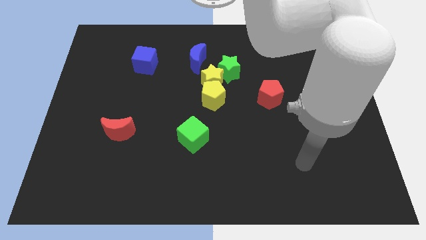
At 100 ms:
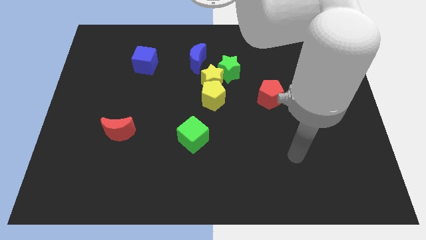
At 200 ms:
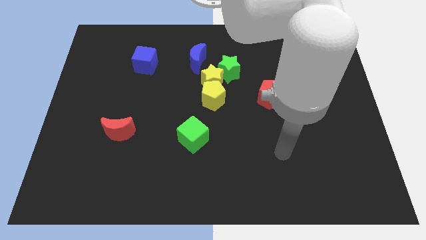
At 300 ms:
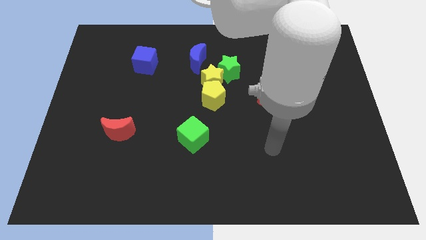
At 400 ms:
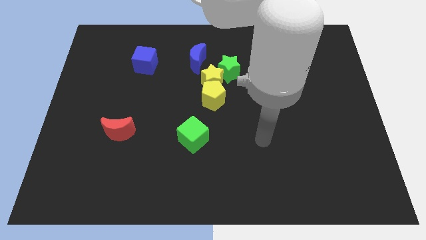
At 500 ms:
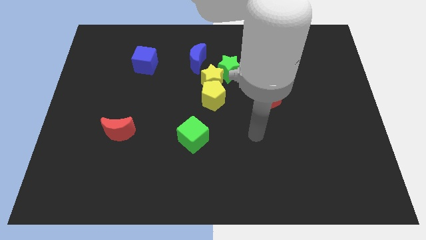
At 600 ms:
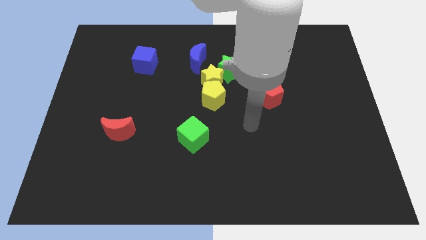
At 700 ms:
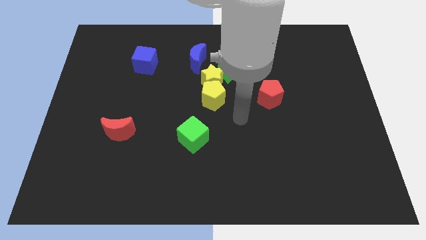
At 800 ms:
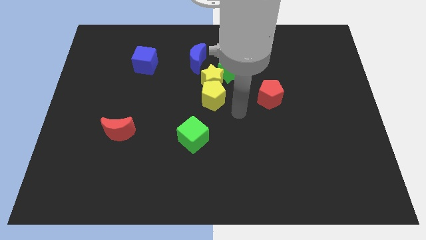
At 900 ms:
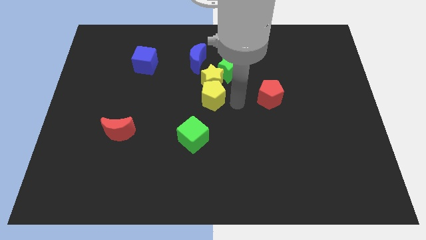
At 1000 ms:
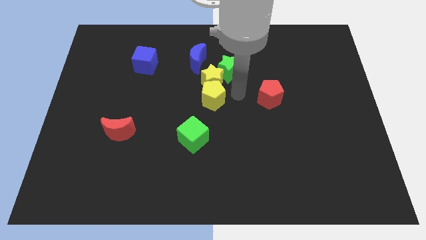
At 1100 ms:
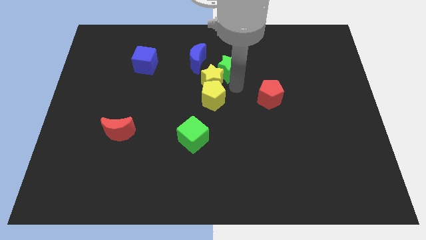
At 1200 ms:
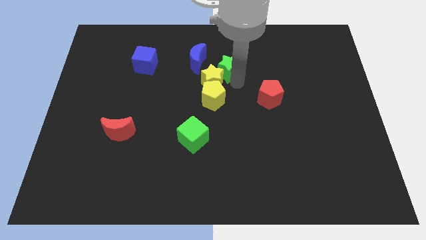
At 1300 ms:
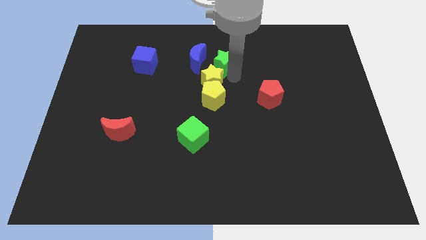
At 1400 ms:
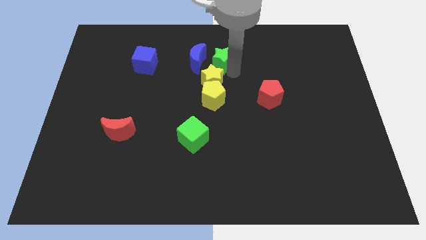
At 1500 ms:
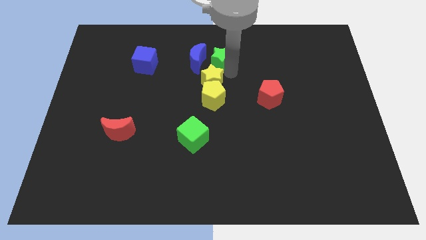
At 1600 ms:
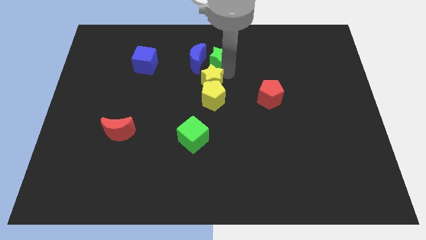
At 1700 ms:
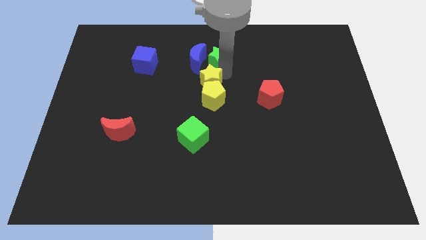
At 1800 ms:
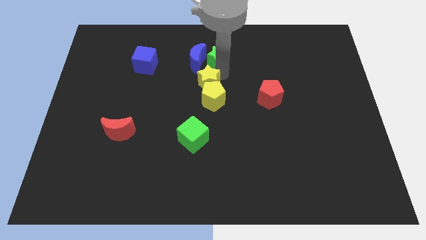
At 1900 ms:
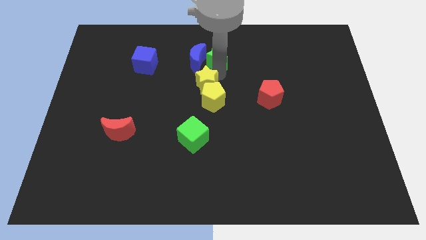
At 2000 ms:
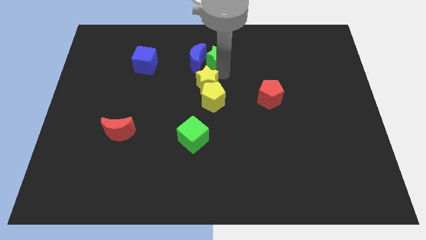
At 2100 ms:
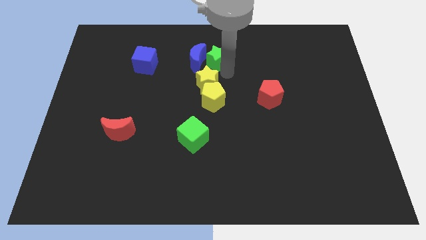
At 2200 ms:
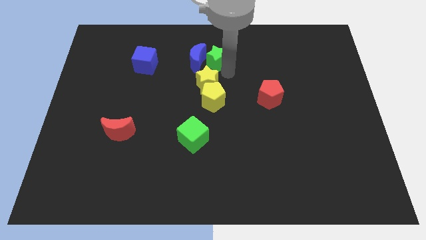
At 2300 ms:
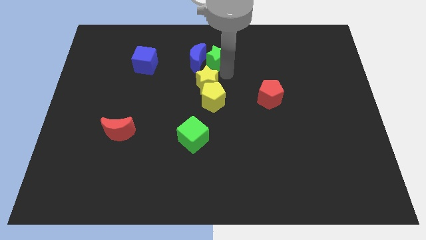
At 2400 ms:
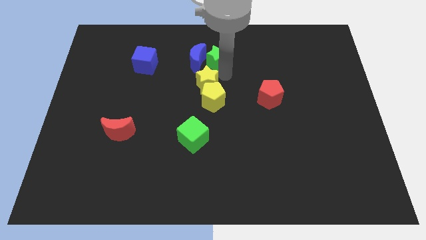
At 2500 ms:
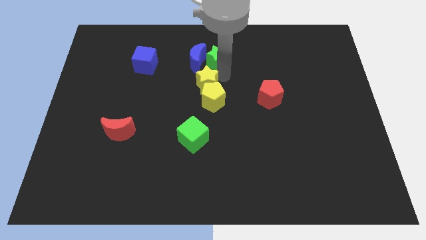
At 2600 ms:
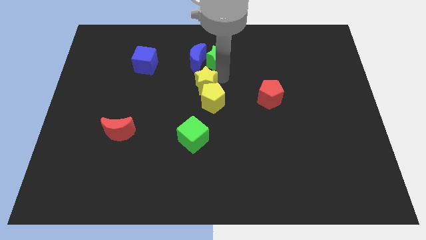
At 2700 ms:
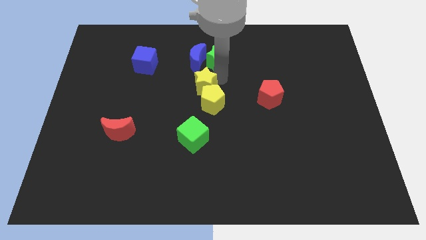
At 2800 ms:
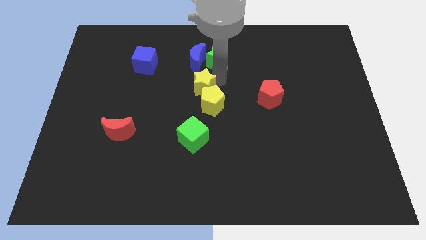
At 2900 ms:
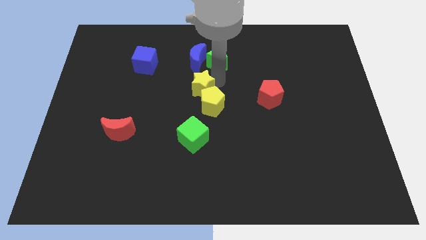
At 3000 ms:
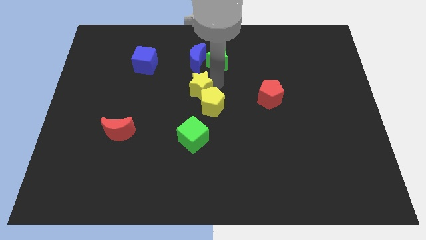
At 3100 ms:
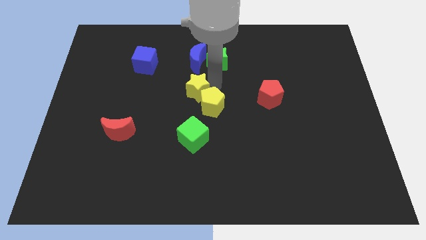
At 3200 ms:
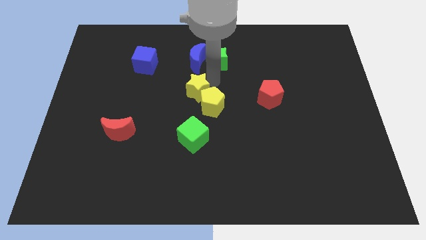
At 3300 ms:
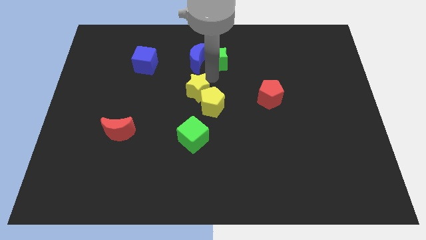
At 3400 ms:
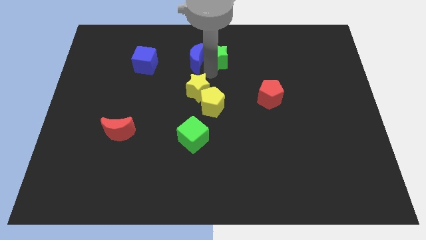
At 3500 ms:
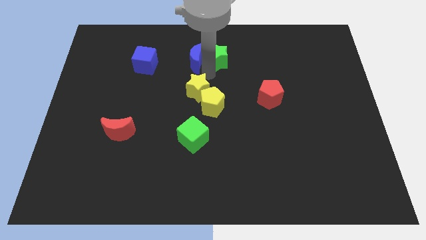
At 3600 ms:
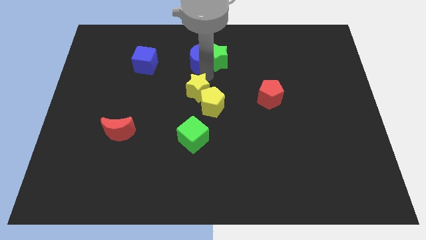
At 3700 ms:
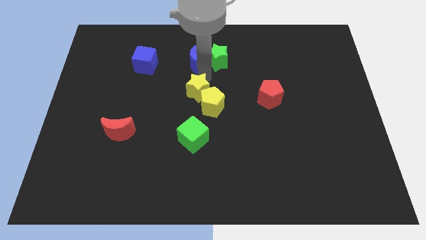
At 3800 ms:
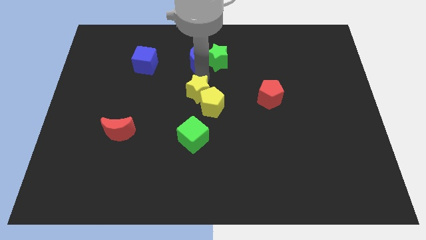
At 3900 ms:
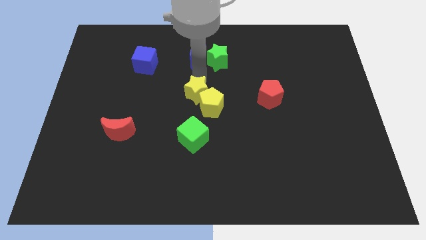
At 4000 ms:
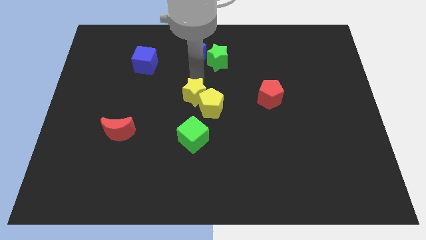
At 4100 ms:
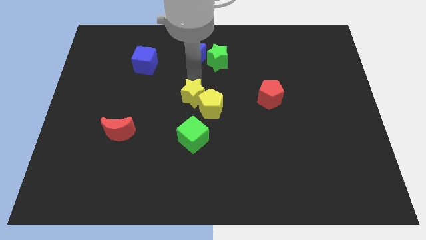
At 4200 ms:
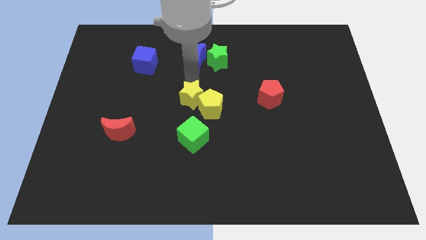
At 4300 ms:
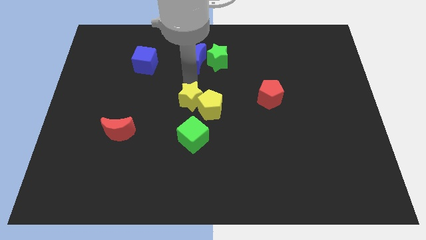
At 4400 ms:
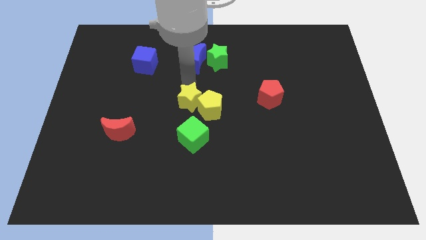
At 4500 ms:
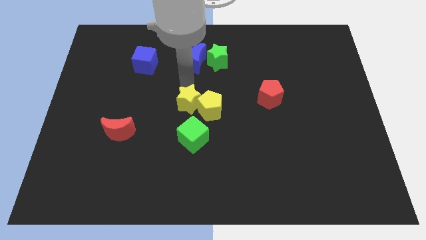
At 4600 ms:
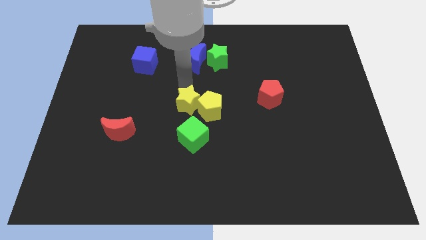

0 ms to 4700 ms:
pull the yellow star apart from the clump

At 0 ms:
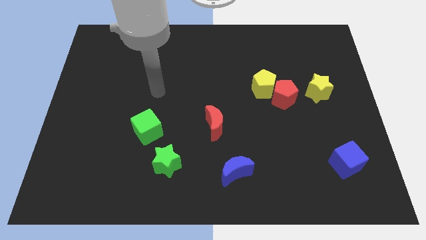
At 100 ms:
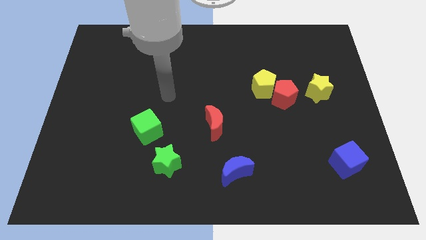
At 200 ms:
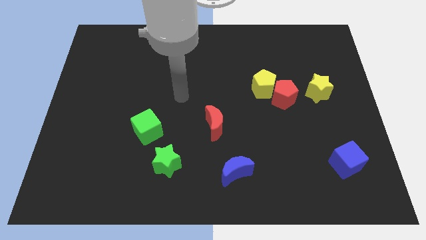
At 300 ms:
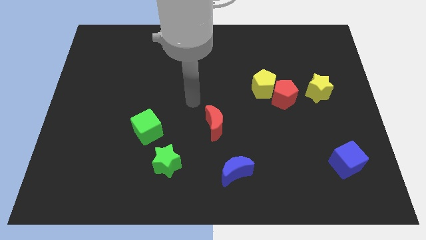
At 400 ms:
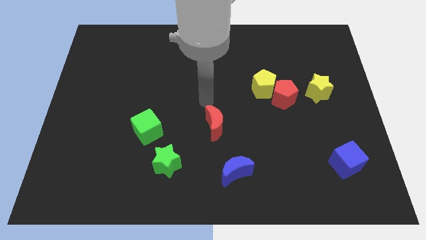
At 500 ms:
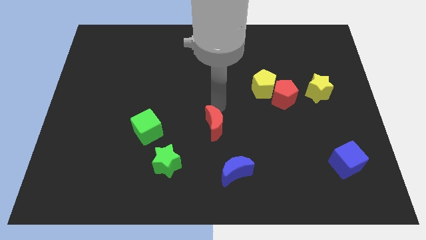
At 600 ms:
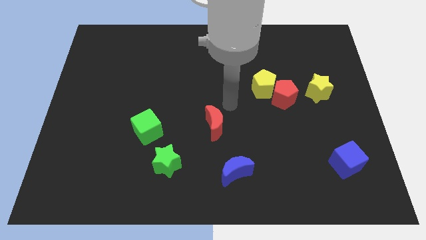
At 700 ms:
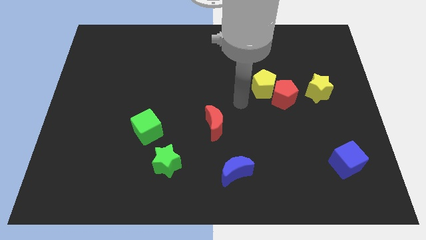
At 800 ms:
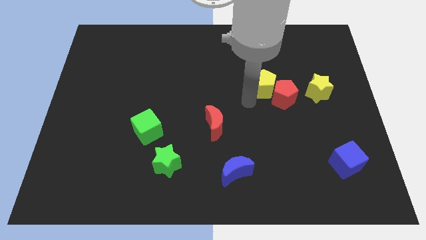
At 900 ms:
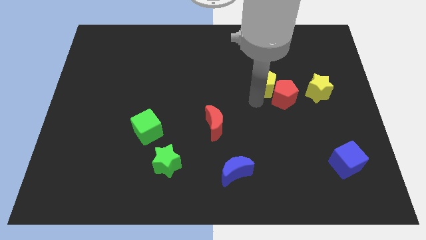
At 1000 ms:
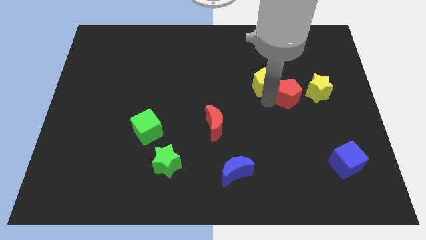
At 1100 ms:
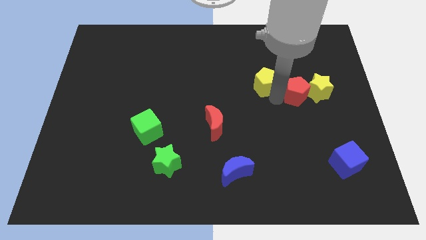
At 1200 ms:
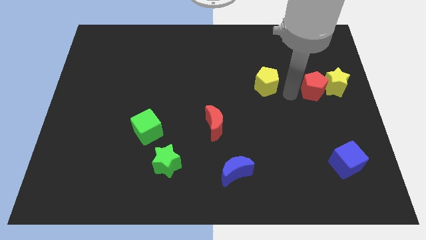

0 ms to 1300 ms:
separate the yellow pentagon from the red pentagon

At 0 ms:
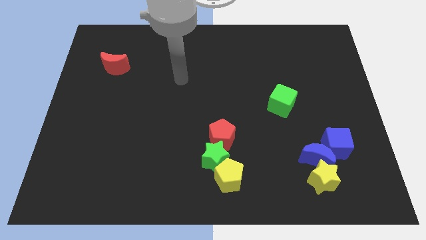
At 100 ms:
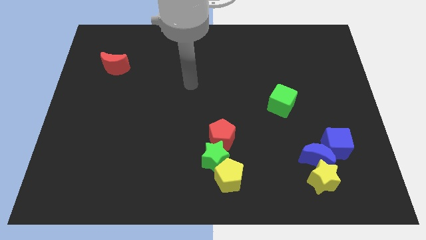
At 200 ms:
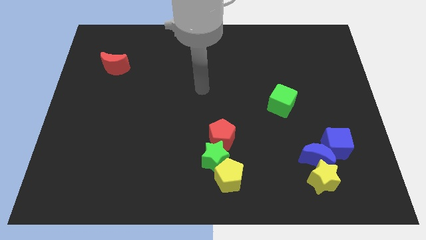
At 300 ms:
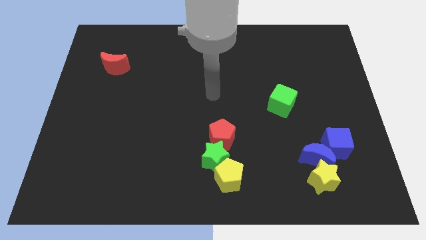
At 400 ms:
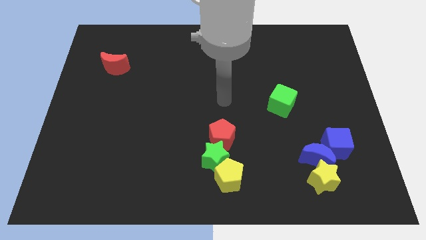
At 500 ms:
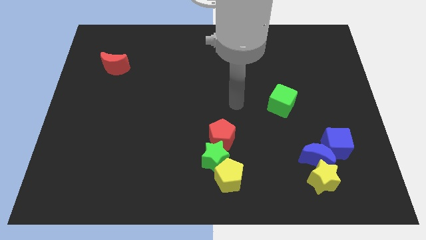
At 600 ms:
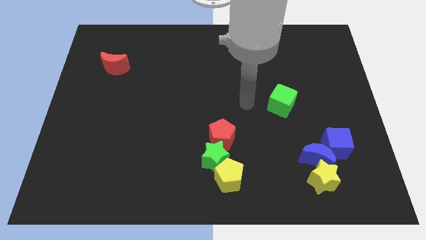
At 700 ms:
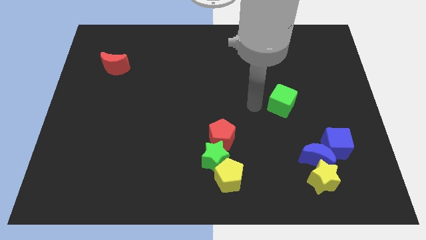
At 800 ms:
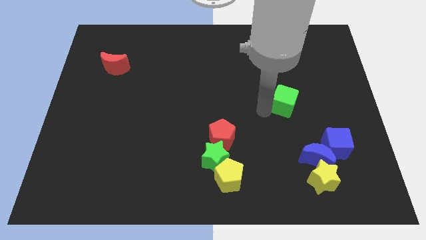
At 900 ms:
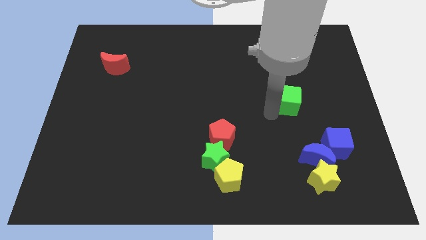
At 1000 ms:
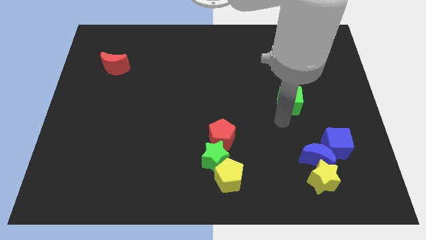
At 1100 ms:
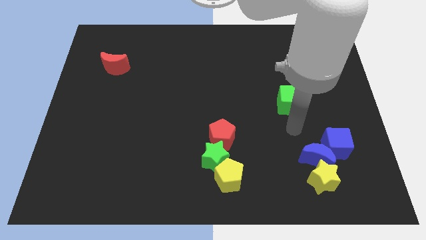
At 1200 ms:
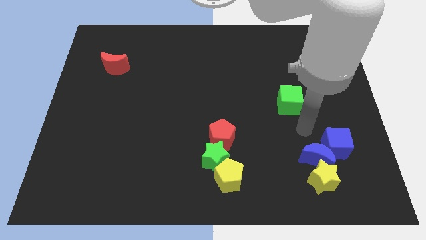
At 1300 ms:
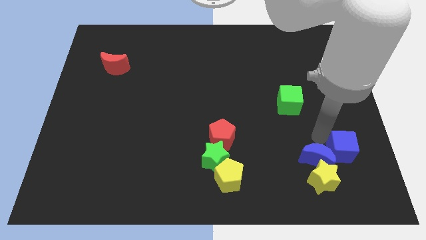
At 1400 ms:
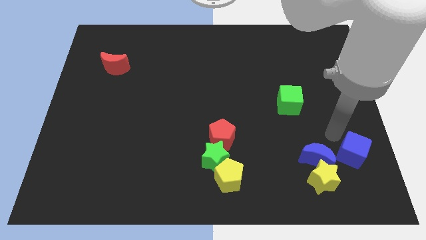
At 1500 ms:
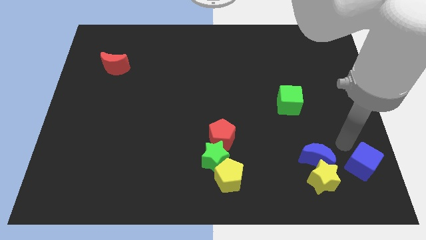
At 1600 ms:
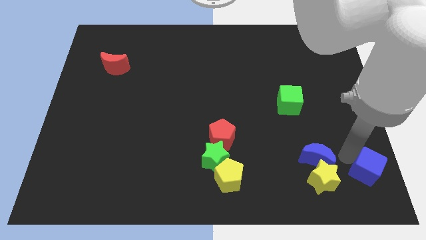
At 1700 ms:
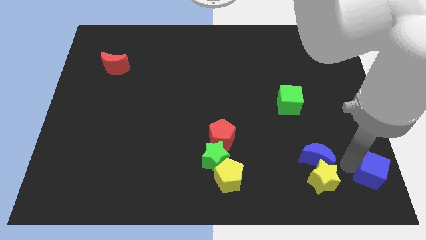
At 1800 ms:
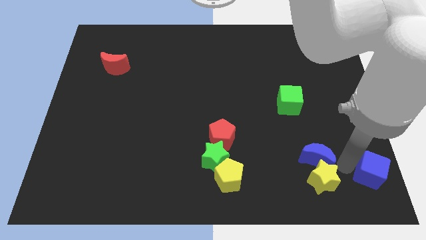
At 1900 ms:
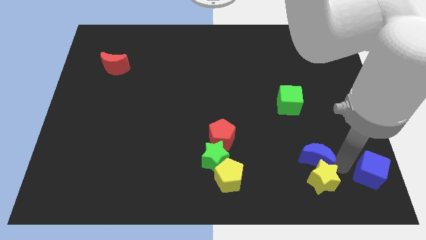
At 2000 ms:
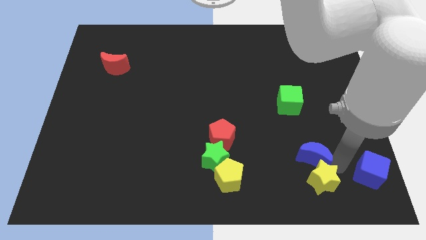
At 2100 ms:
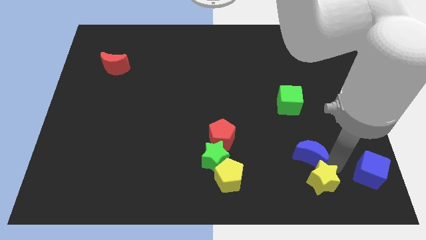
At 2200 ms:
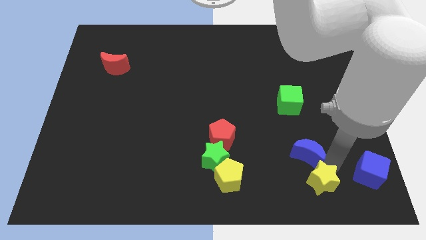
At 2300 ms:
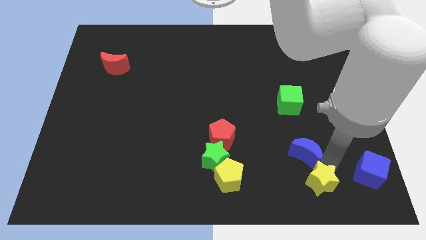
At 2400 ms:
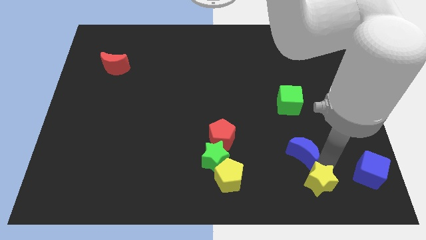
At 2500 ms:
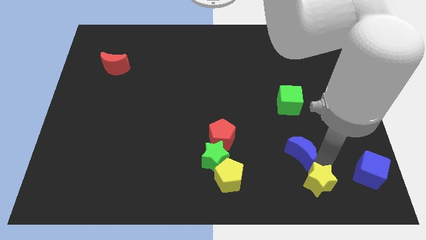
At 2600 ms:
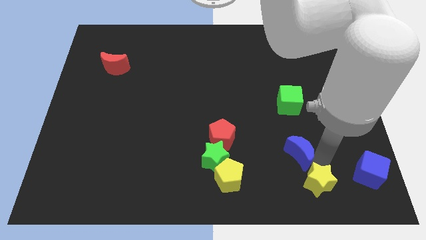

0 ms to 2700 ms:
move the blue moon away from the yellow star and blue cube

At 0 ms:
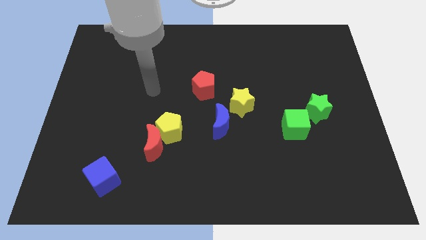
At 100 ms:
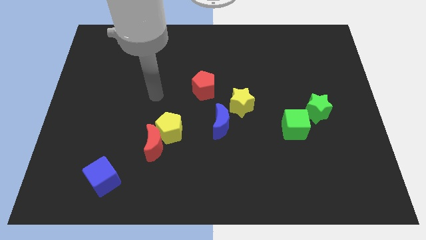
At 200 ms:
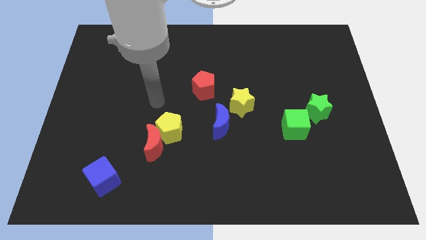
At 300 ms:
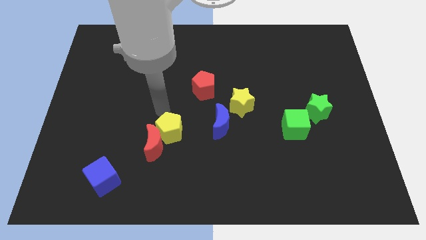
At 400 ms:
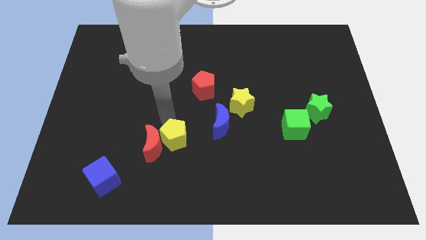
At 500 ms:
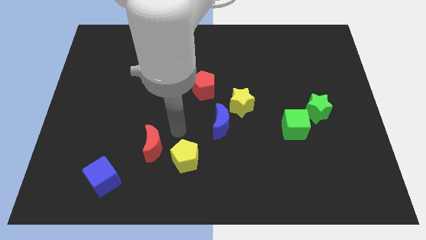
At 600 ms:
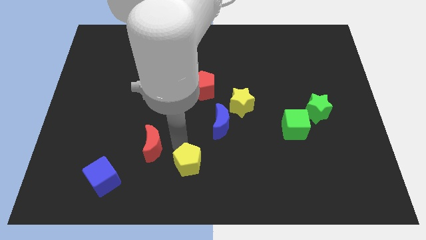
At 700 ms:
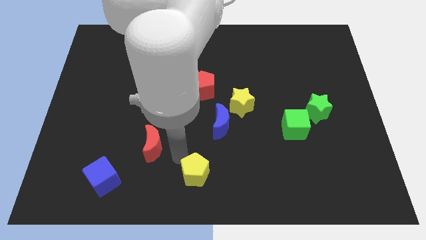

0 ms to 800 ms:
move the red moon away from the yellow pentagon

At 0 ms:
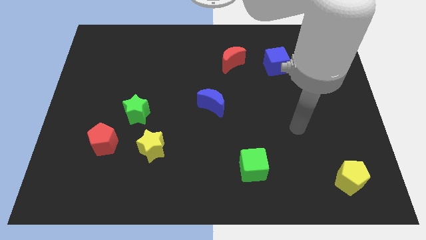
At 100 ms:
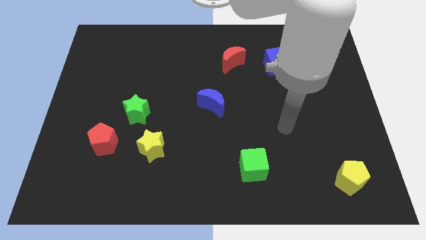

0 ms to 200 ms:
pull the red pentagon apart from the green star
